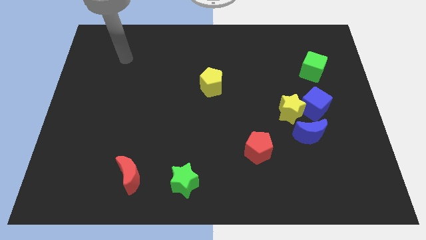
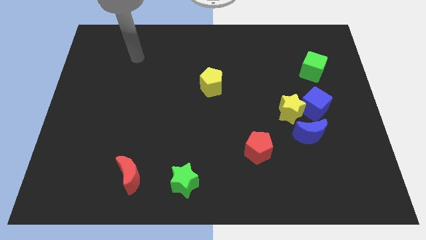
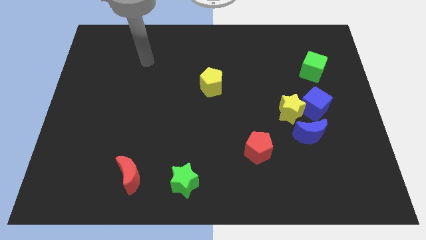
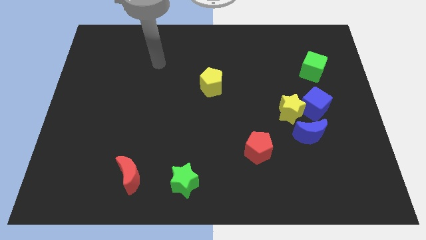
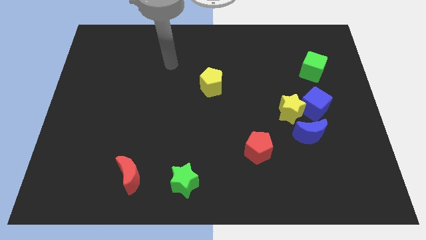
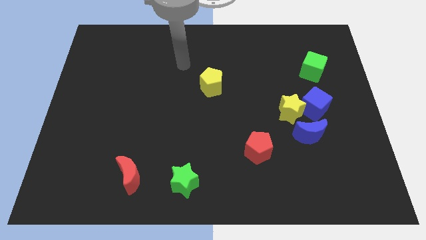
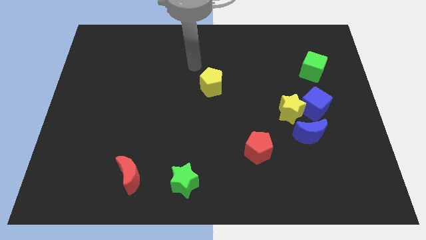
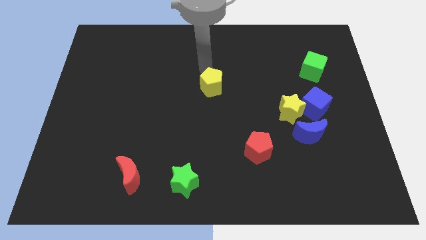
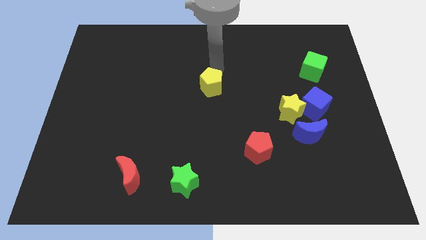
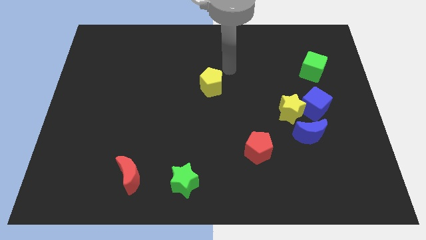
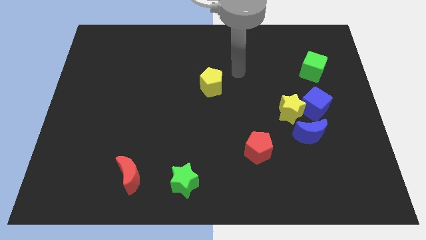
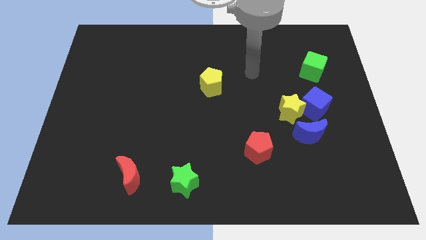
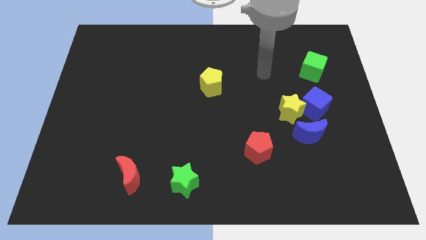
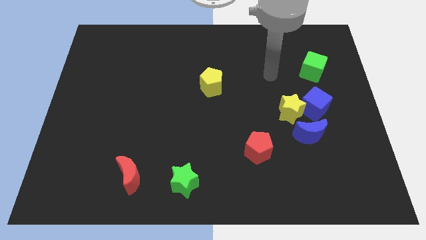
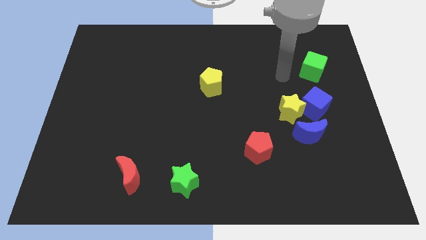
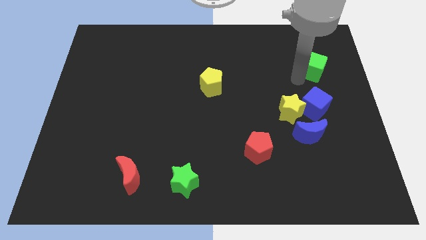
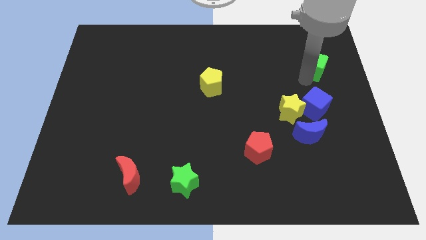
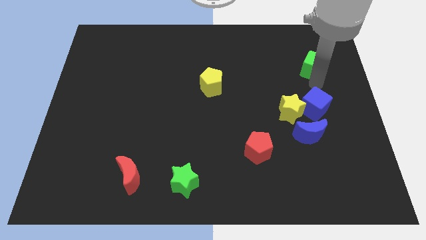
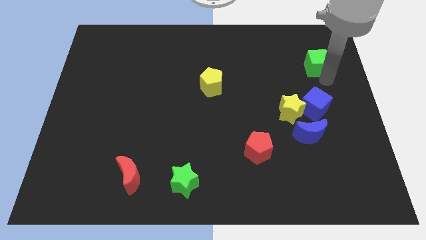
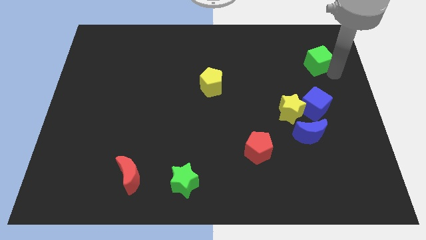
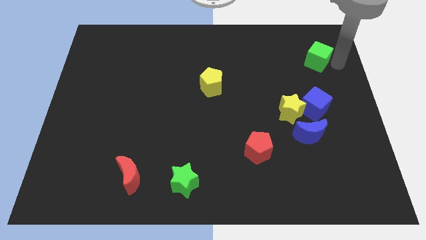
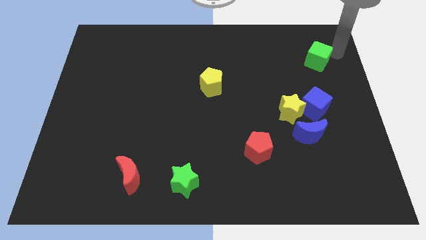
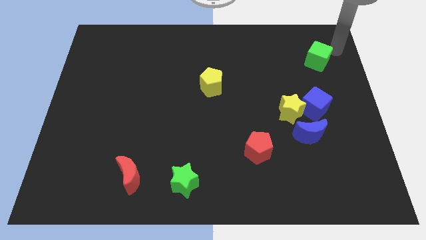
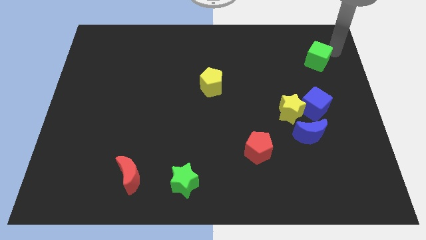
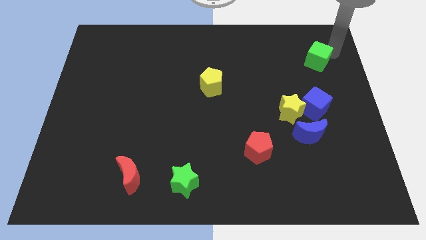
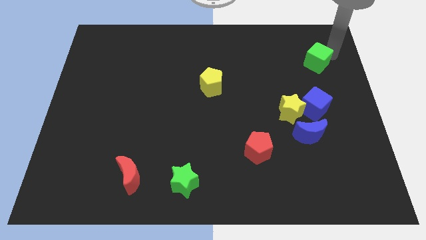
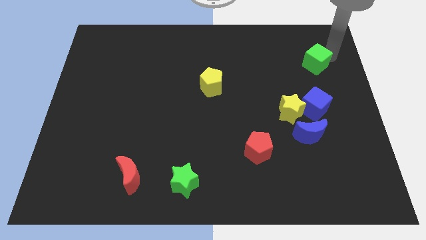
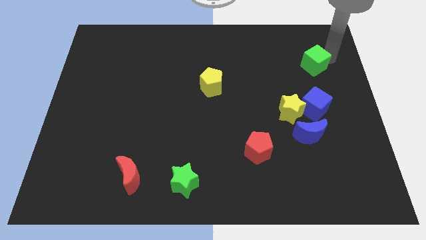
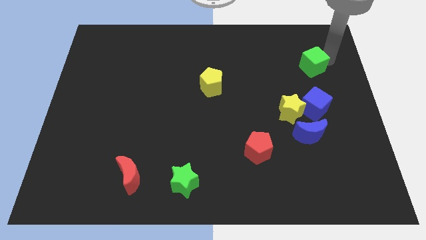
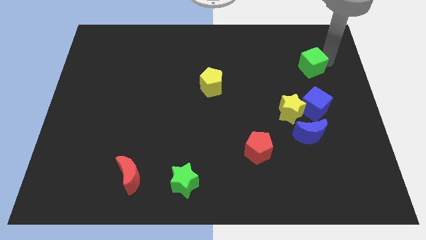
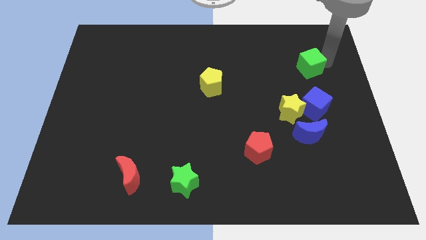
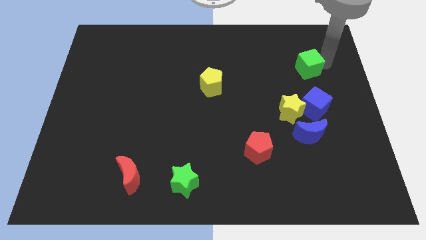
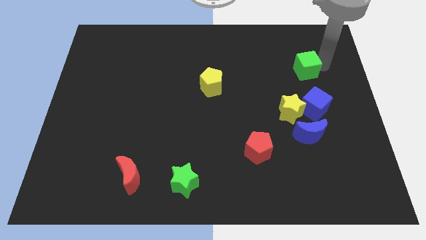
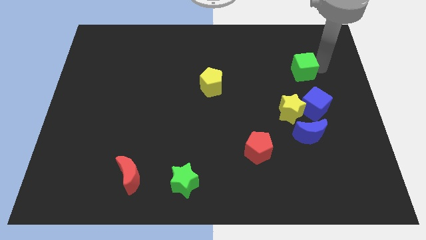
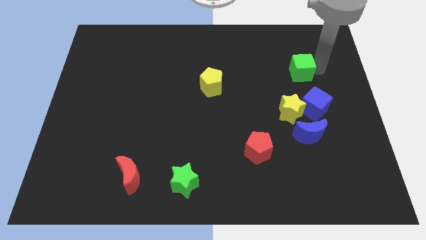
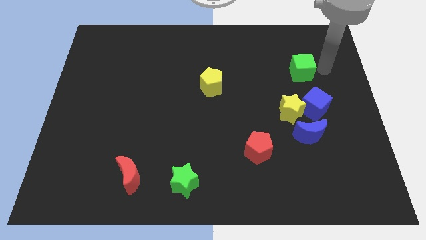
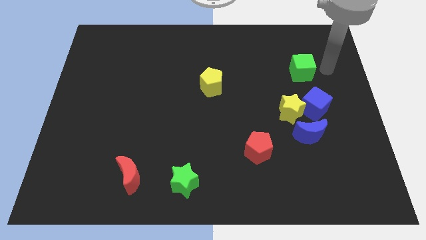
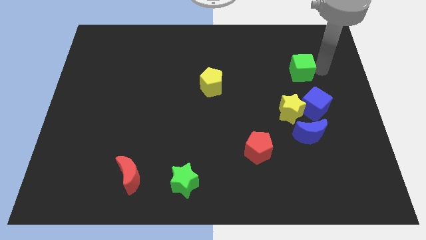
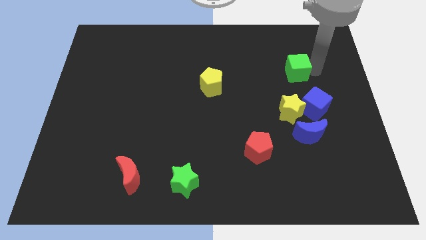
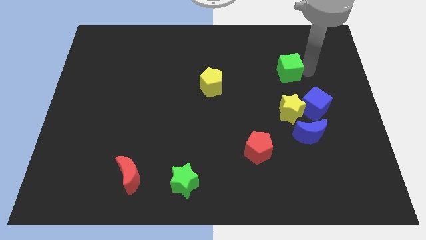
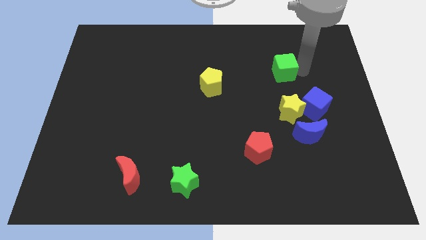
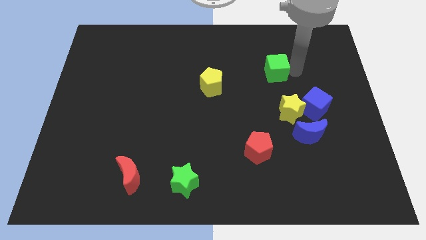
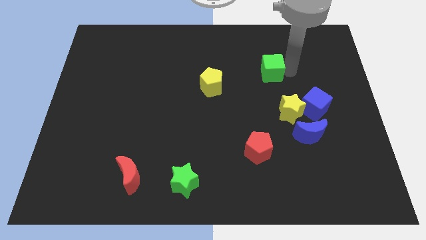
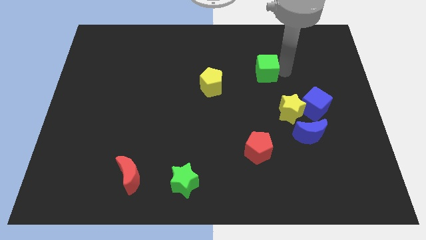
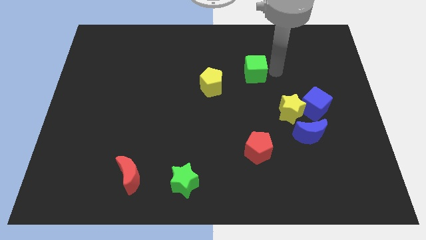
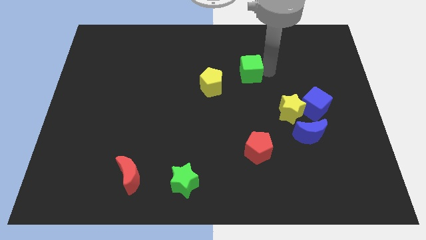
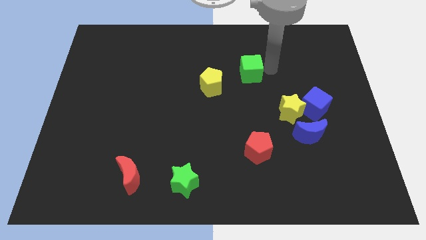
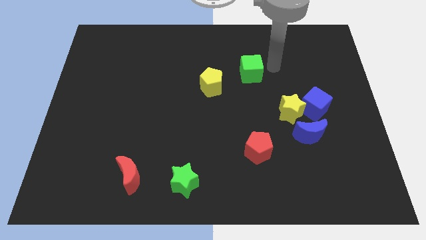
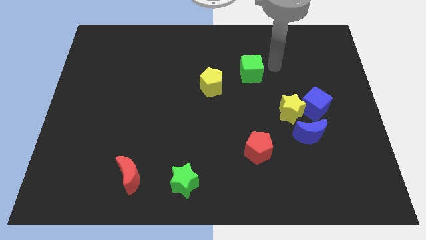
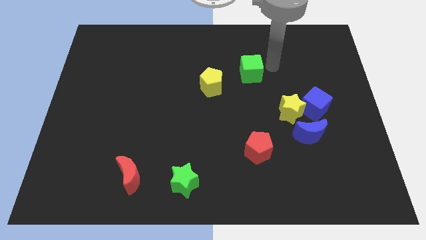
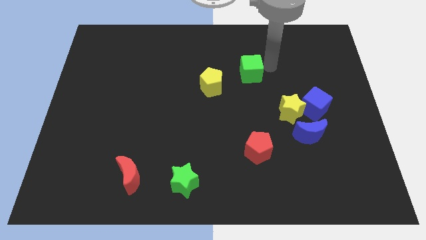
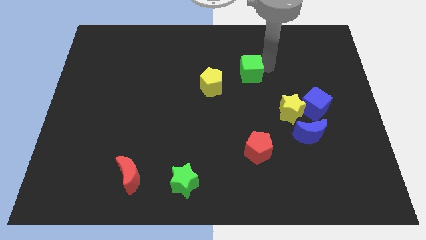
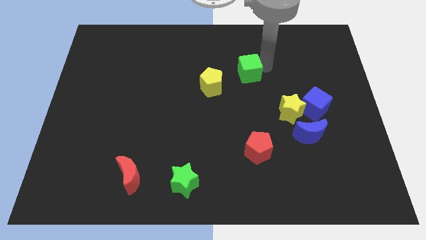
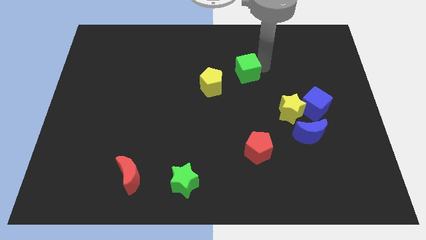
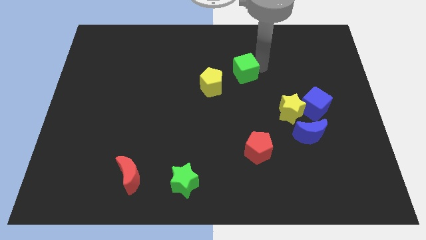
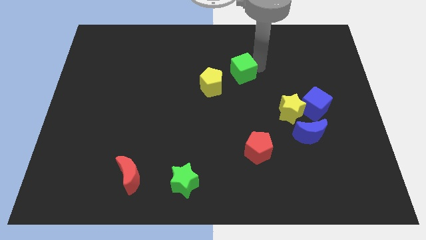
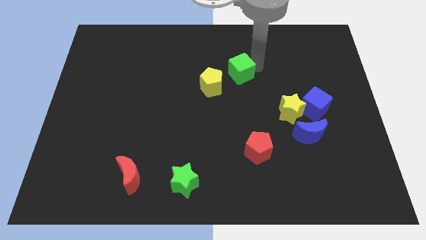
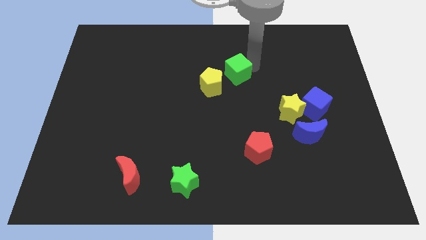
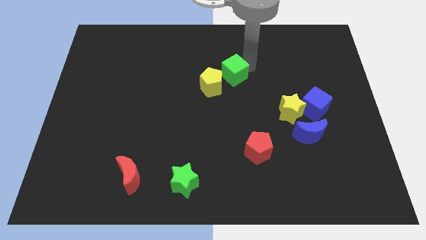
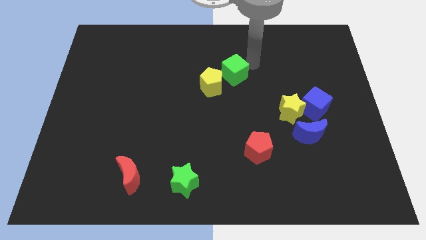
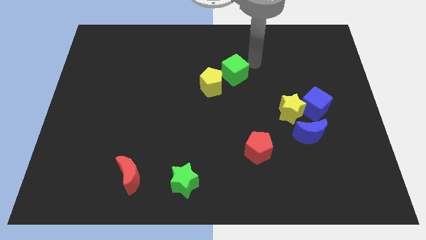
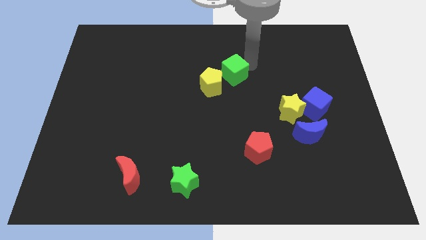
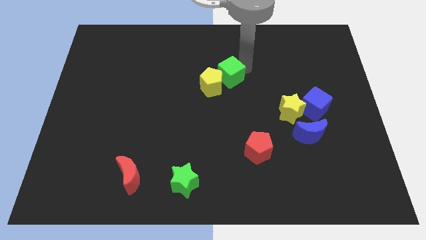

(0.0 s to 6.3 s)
slide the green cube next to the yellow pentagon

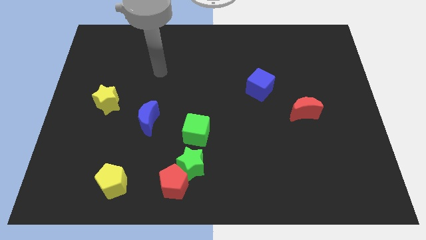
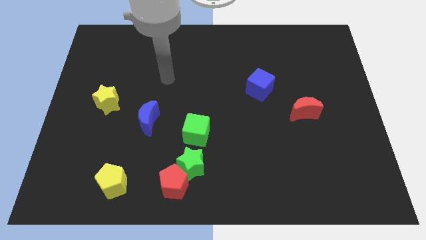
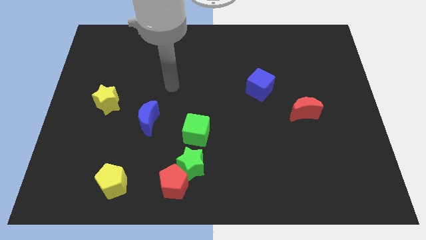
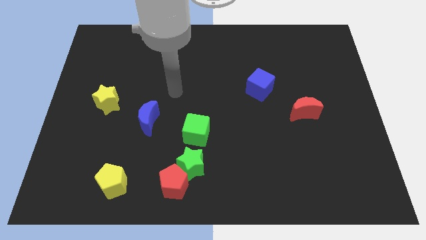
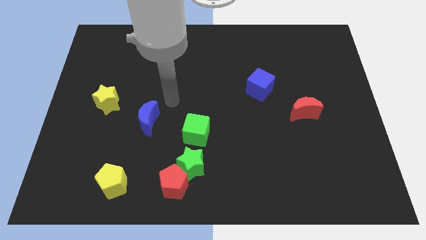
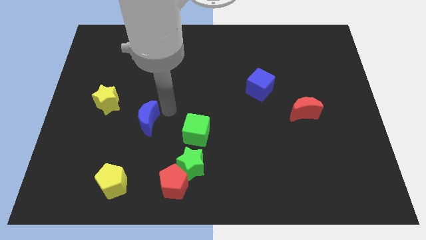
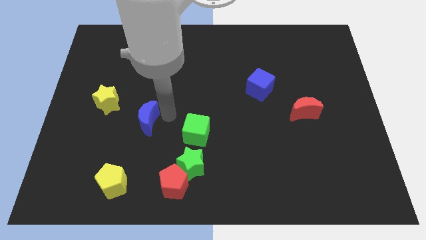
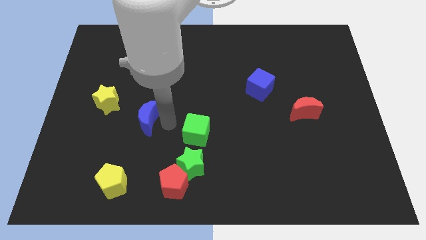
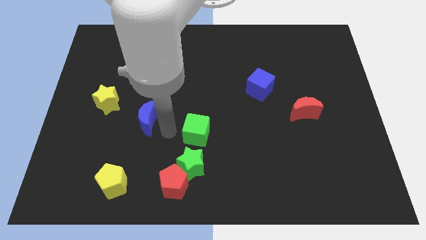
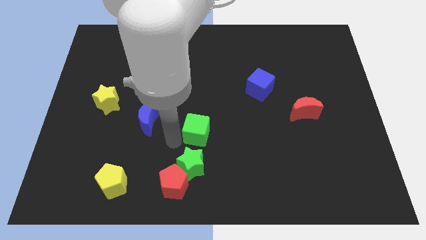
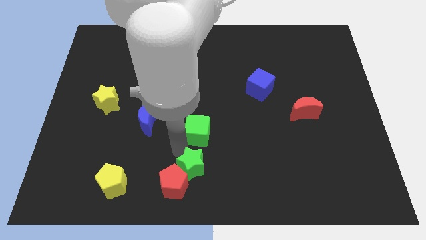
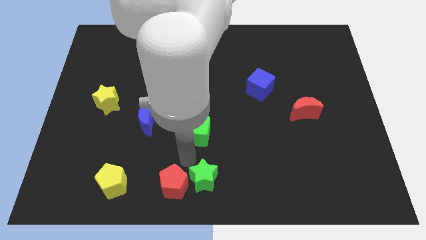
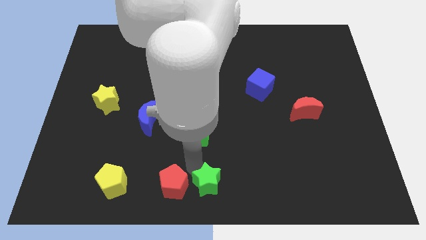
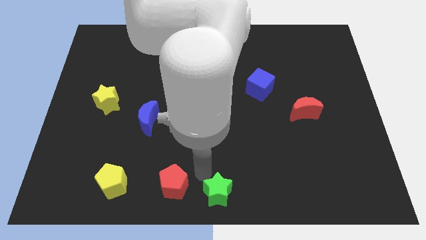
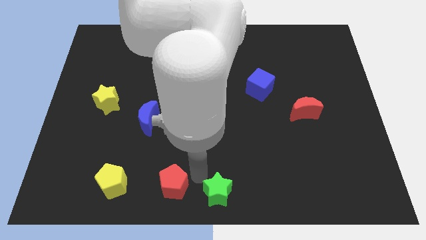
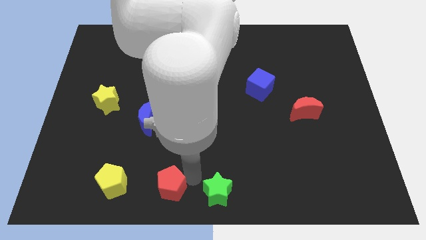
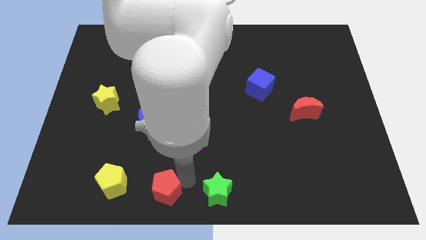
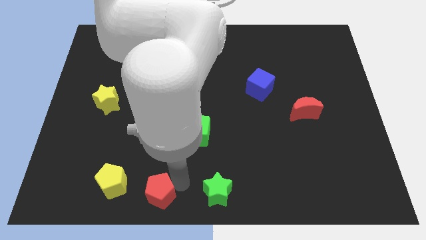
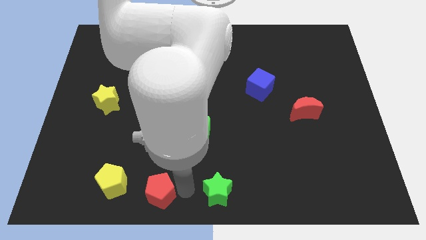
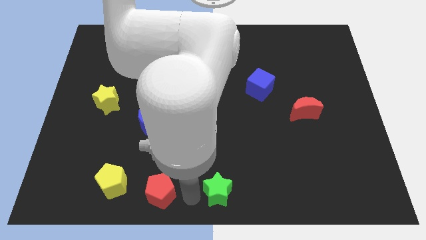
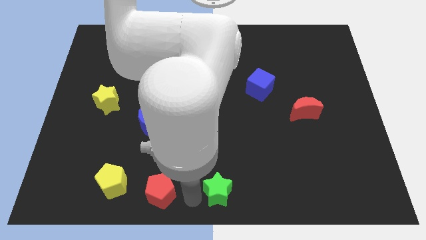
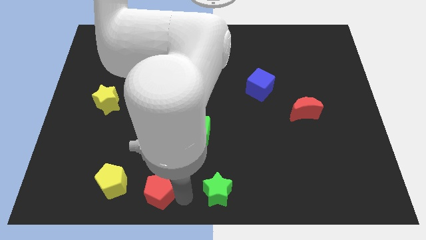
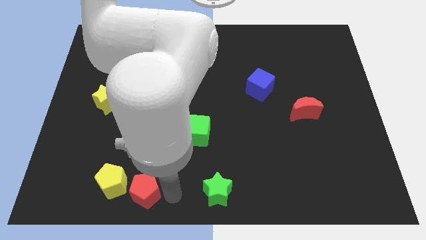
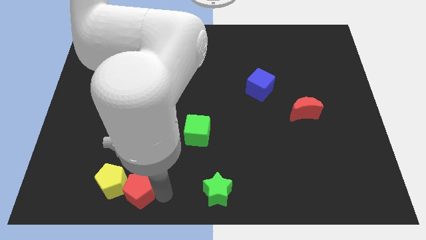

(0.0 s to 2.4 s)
slide the red pentagon next to the yellow pentagon
